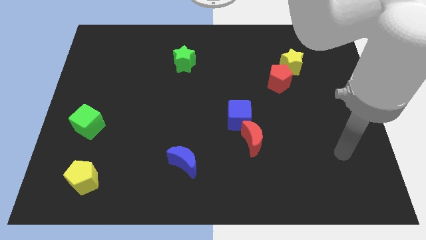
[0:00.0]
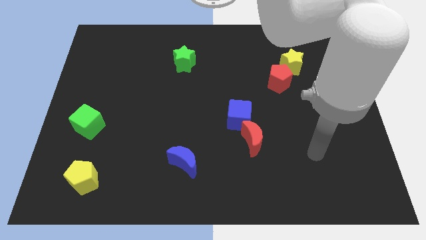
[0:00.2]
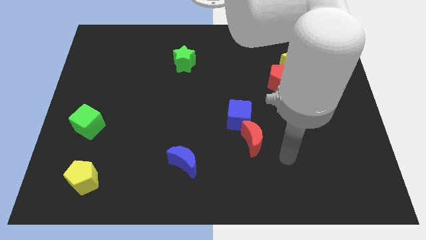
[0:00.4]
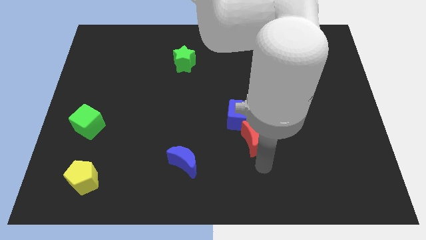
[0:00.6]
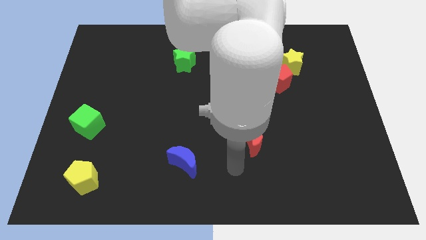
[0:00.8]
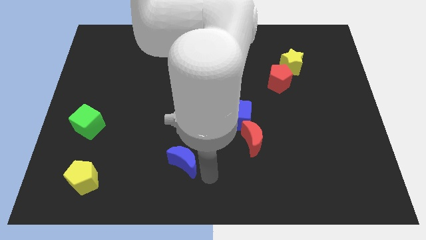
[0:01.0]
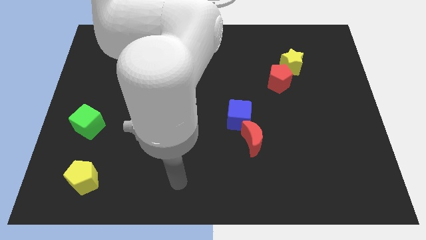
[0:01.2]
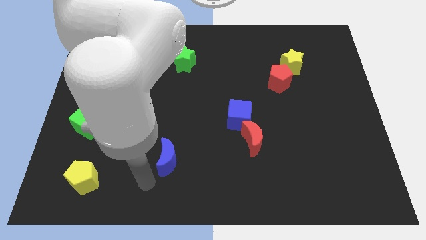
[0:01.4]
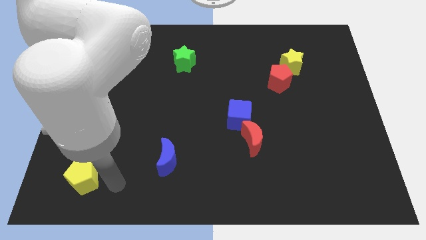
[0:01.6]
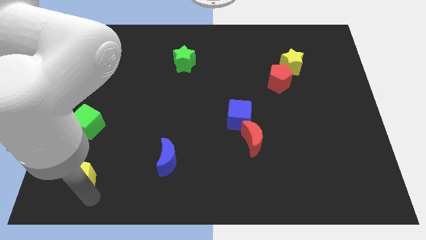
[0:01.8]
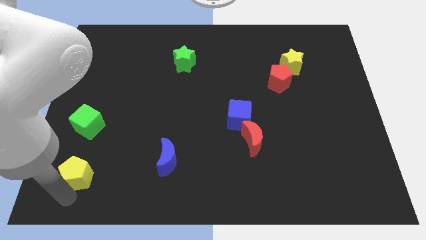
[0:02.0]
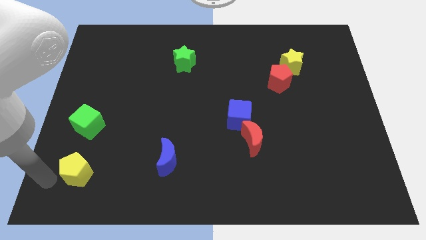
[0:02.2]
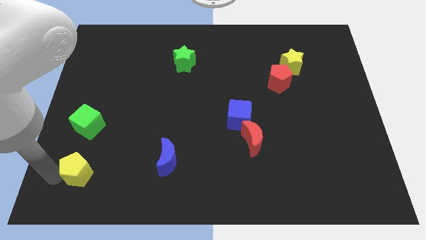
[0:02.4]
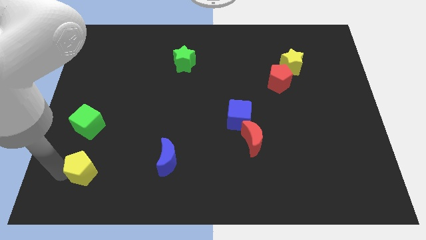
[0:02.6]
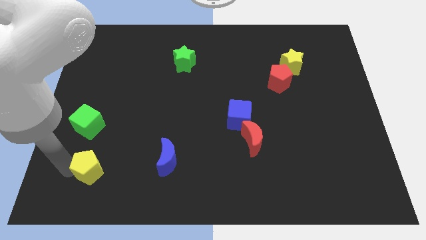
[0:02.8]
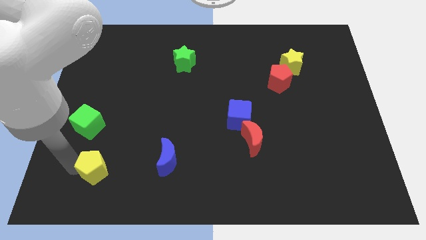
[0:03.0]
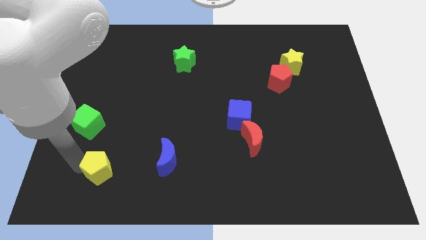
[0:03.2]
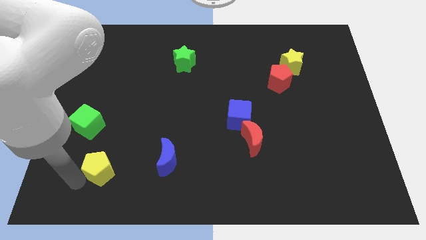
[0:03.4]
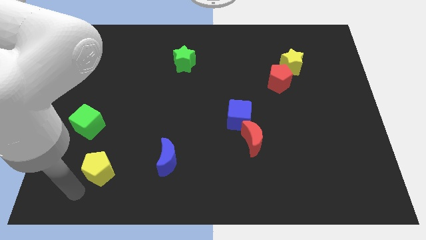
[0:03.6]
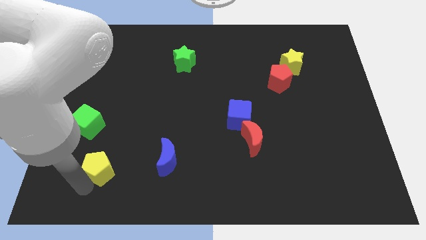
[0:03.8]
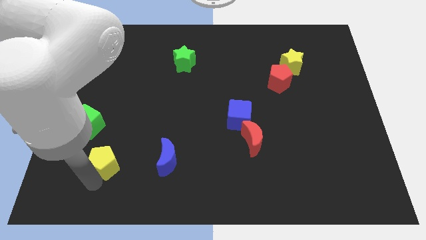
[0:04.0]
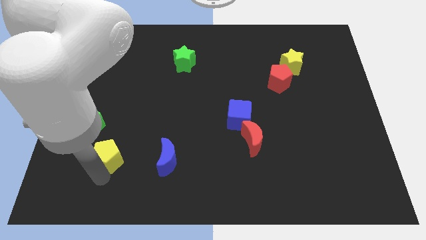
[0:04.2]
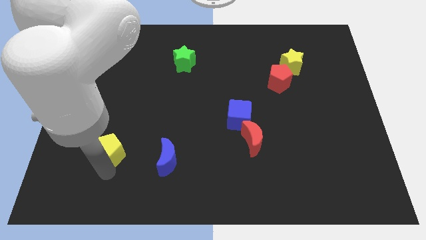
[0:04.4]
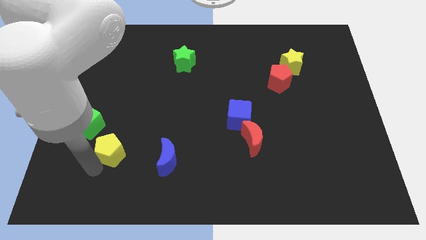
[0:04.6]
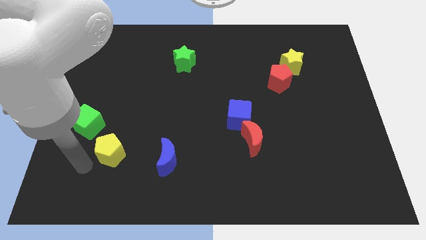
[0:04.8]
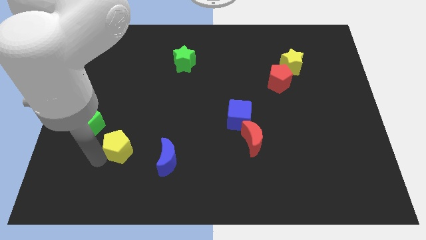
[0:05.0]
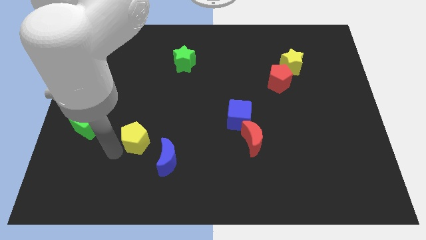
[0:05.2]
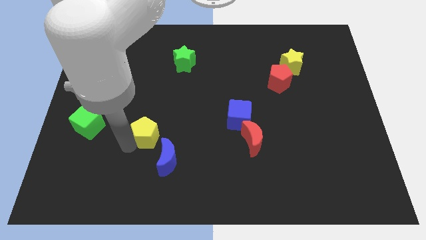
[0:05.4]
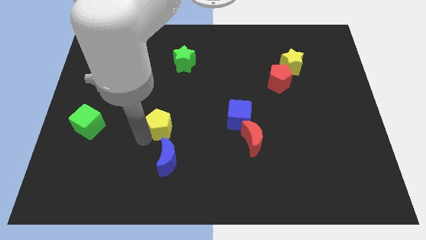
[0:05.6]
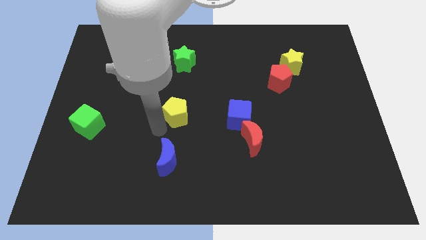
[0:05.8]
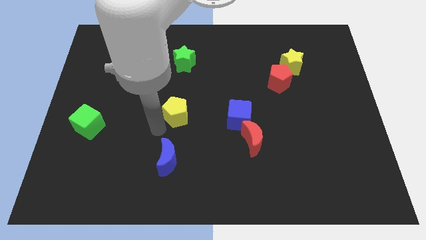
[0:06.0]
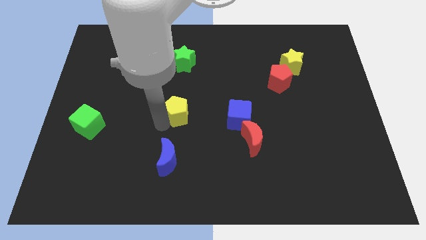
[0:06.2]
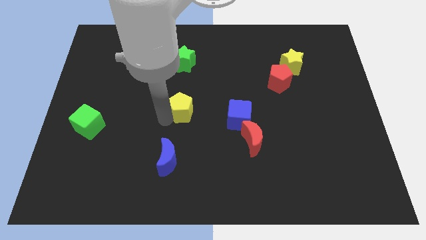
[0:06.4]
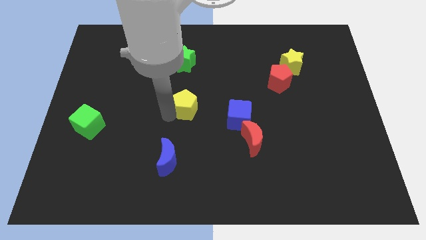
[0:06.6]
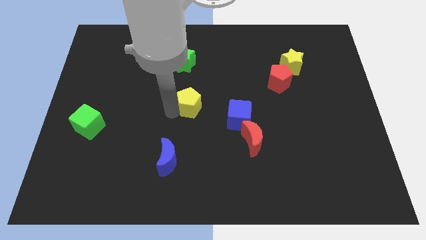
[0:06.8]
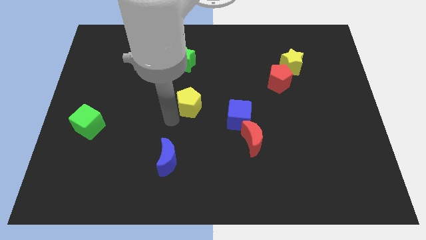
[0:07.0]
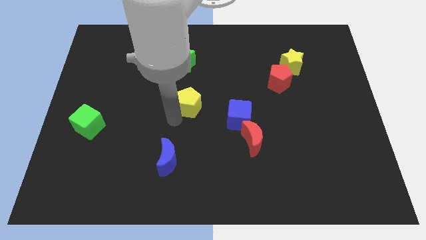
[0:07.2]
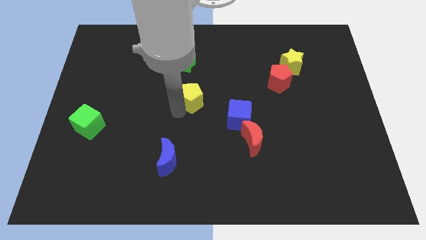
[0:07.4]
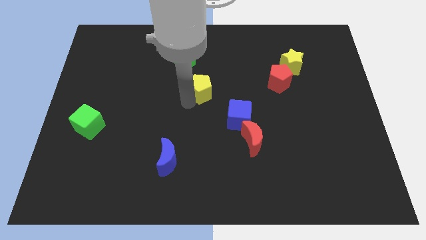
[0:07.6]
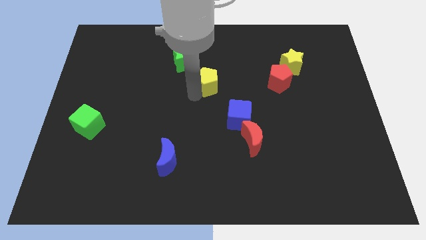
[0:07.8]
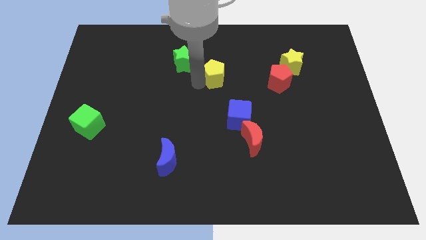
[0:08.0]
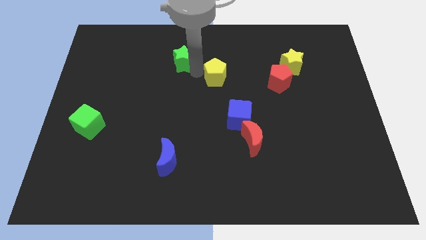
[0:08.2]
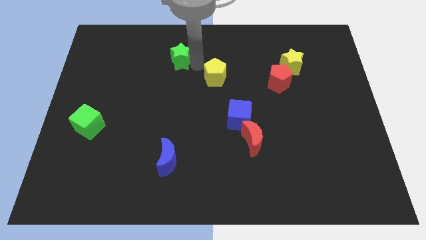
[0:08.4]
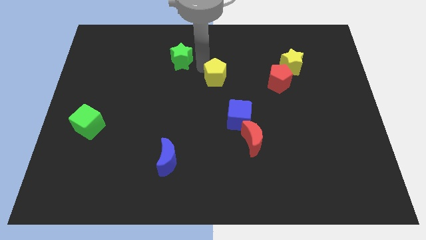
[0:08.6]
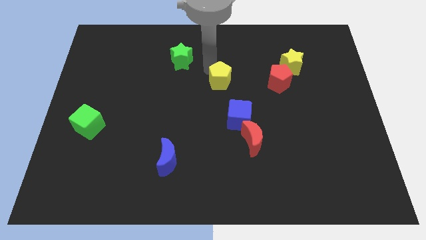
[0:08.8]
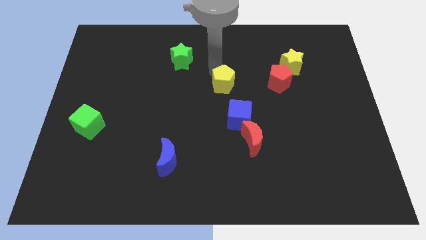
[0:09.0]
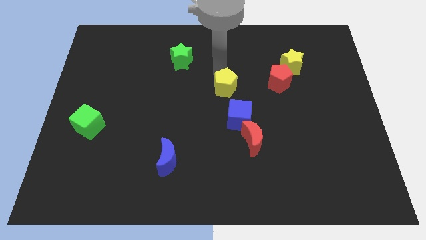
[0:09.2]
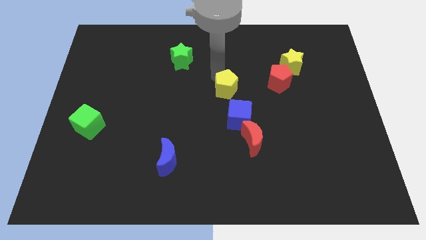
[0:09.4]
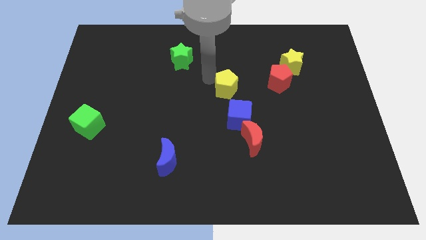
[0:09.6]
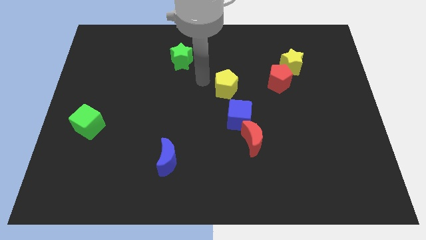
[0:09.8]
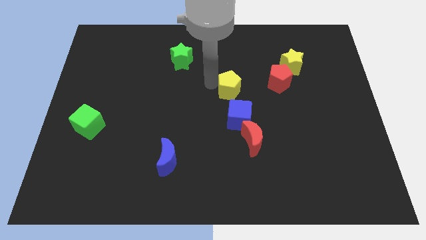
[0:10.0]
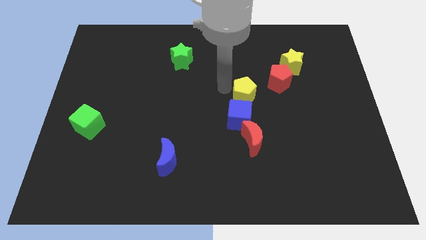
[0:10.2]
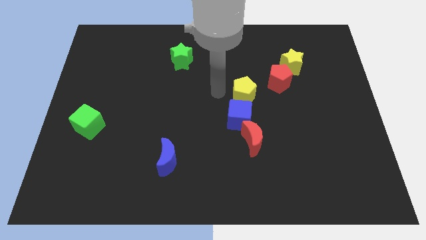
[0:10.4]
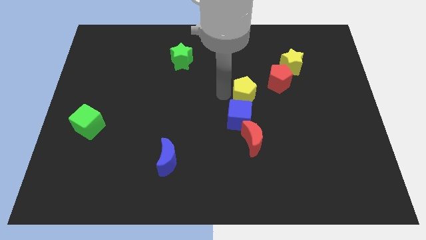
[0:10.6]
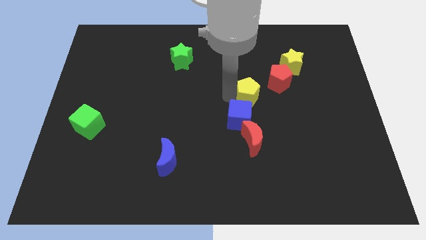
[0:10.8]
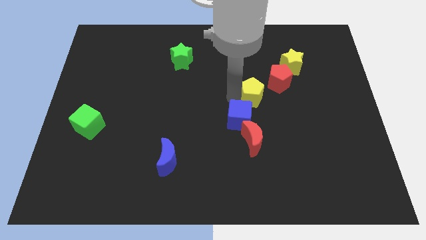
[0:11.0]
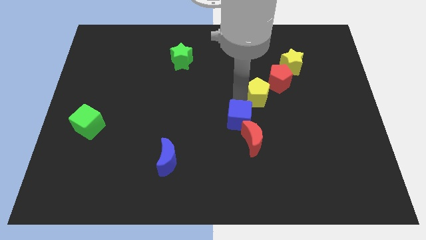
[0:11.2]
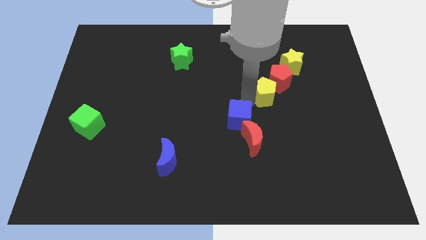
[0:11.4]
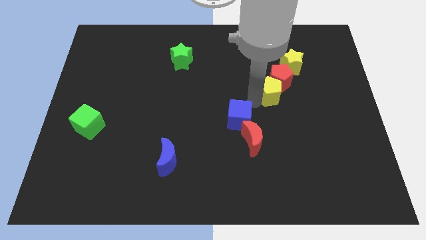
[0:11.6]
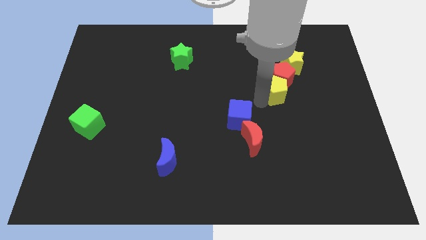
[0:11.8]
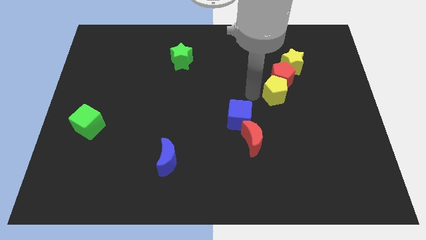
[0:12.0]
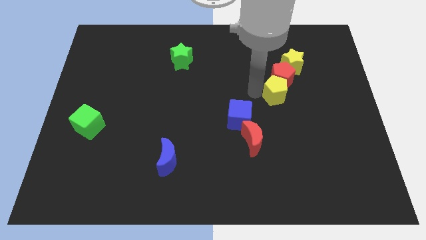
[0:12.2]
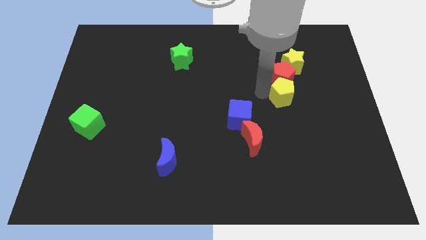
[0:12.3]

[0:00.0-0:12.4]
move the yellow pentagon to the bottom side of the yellow star
